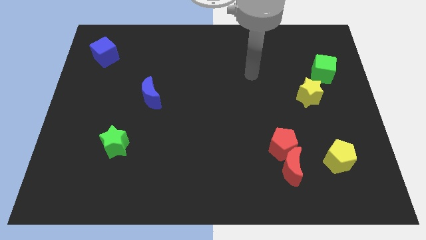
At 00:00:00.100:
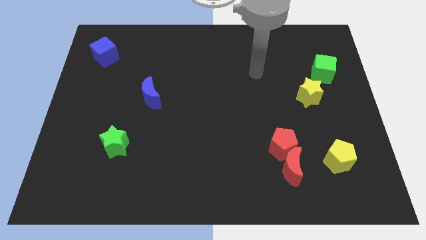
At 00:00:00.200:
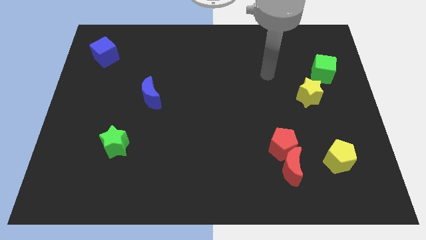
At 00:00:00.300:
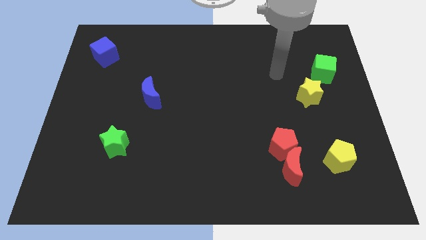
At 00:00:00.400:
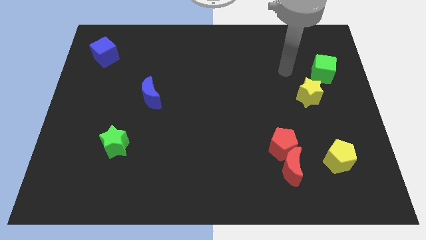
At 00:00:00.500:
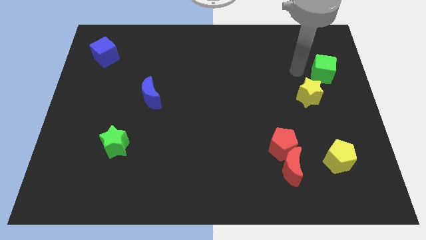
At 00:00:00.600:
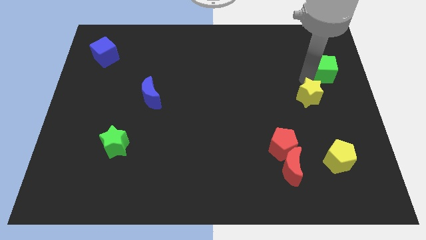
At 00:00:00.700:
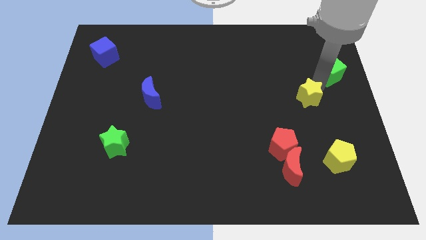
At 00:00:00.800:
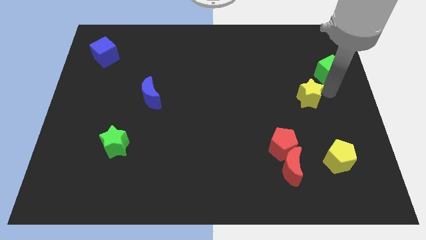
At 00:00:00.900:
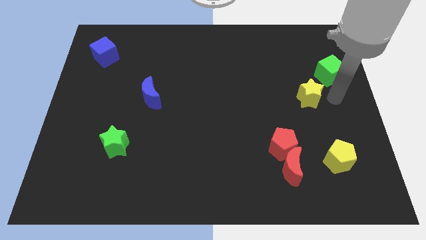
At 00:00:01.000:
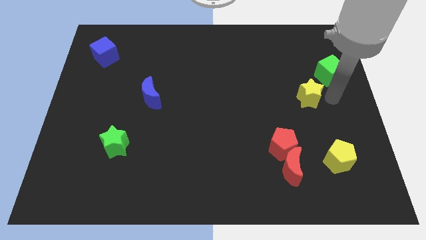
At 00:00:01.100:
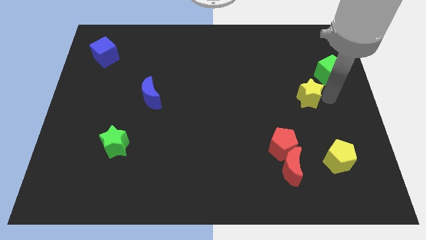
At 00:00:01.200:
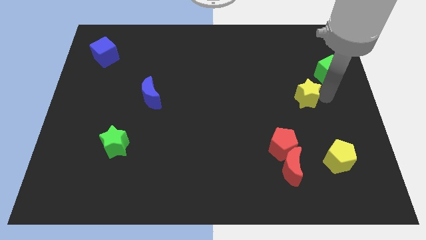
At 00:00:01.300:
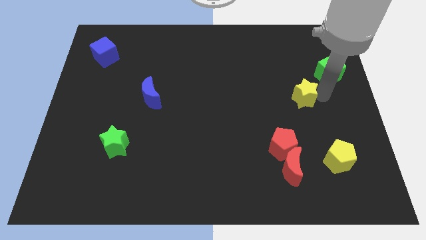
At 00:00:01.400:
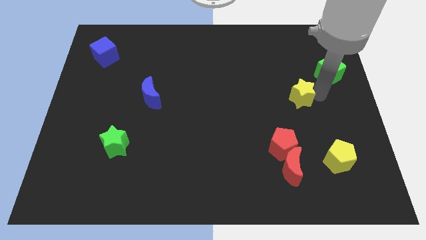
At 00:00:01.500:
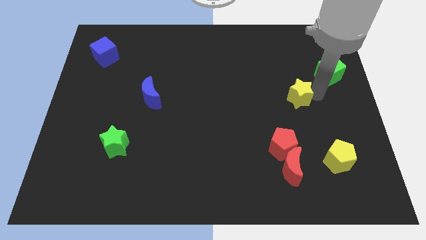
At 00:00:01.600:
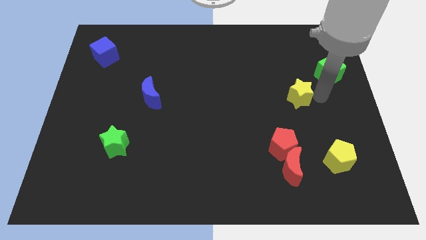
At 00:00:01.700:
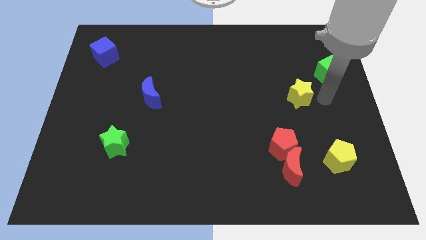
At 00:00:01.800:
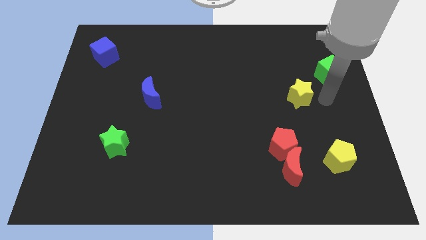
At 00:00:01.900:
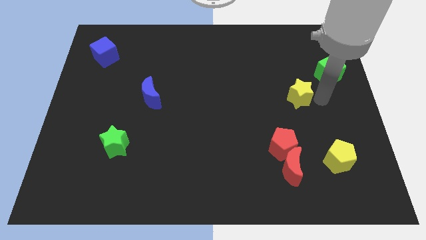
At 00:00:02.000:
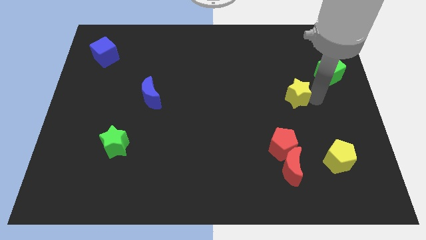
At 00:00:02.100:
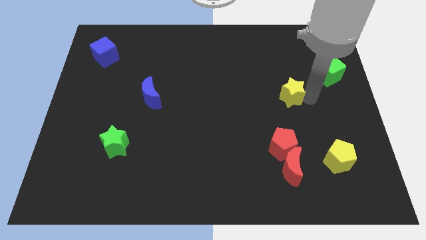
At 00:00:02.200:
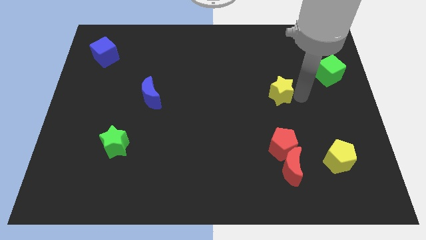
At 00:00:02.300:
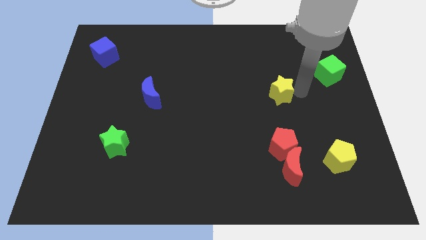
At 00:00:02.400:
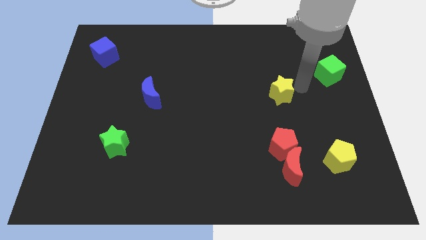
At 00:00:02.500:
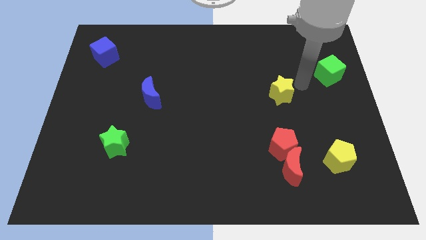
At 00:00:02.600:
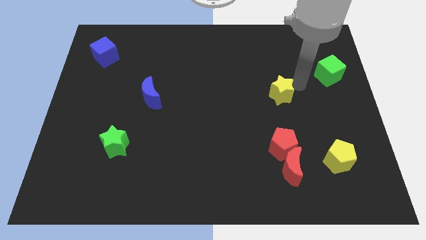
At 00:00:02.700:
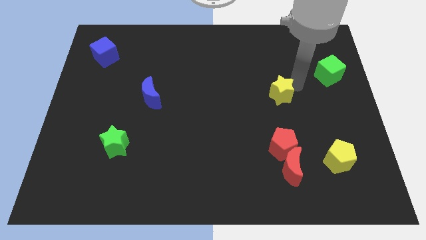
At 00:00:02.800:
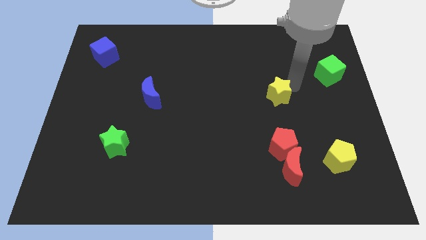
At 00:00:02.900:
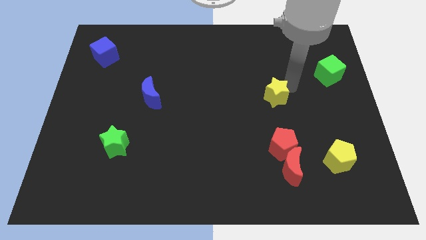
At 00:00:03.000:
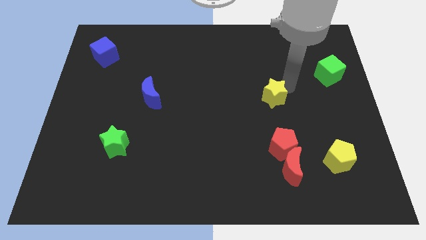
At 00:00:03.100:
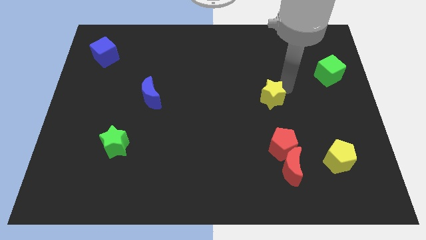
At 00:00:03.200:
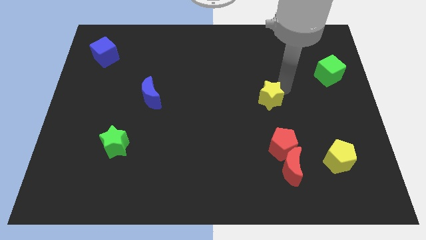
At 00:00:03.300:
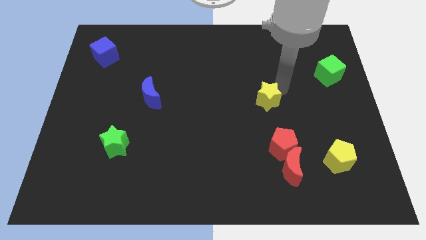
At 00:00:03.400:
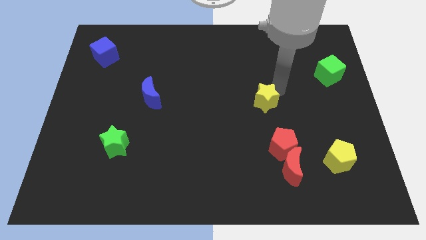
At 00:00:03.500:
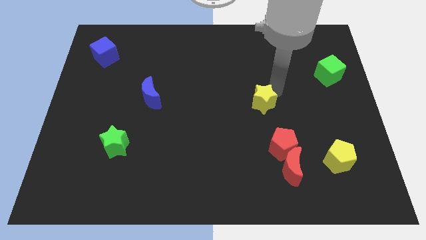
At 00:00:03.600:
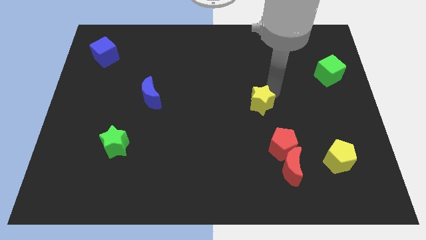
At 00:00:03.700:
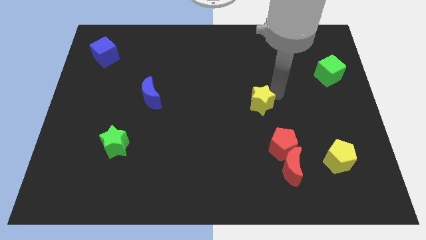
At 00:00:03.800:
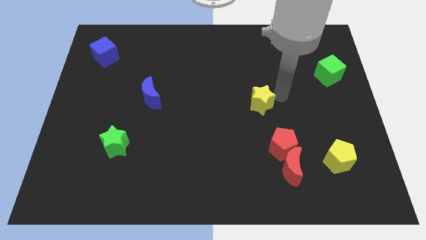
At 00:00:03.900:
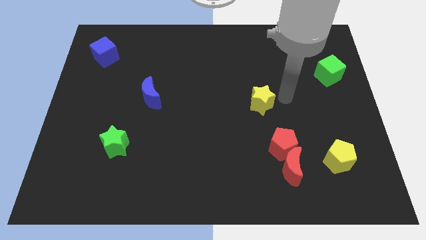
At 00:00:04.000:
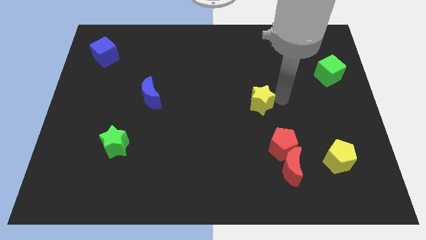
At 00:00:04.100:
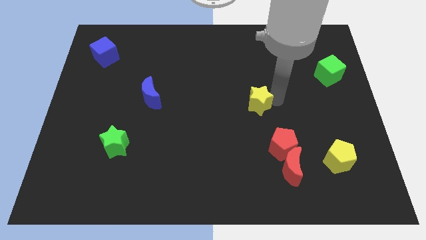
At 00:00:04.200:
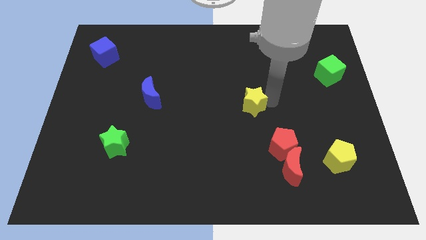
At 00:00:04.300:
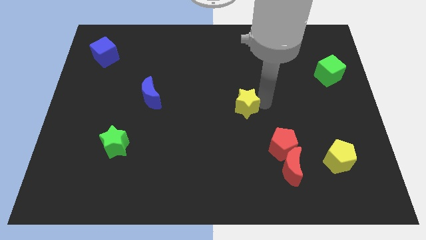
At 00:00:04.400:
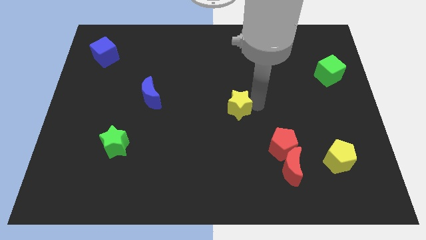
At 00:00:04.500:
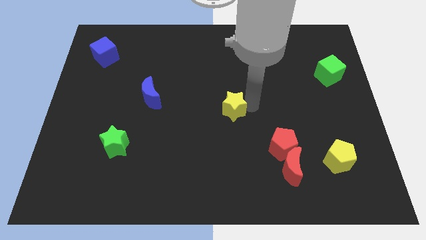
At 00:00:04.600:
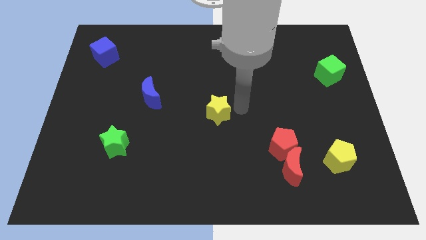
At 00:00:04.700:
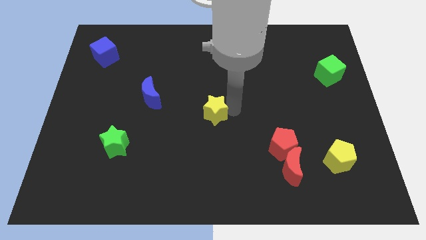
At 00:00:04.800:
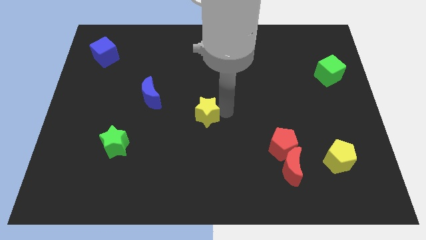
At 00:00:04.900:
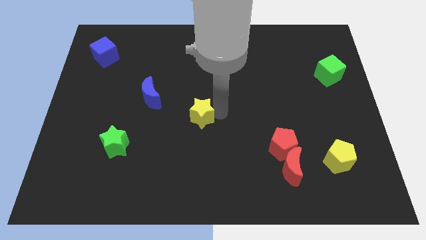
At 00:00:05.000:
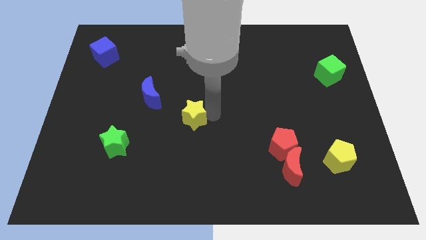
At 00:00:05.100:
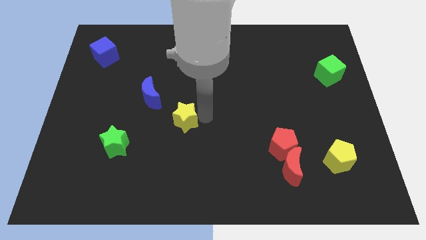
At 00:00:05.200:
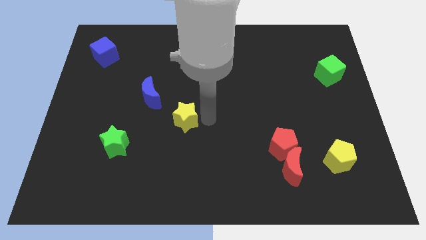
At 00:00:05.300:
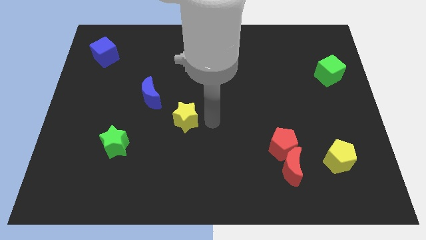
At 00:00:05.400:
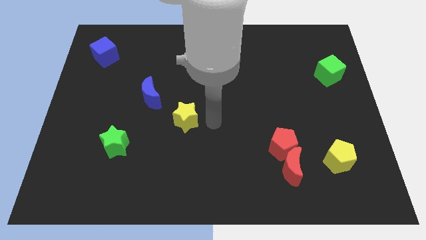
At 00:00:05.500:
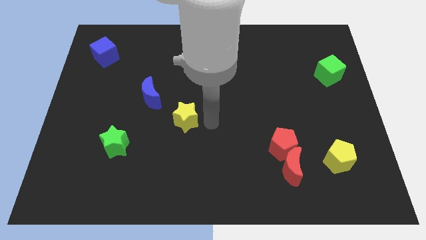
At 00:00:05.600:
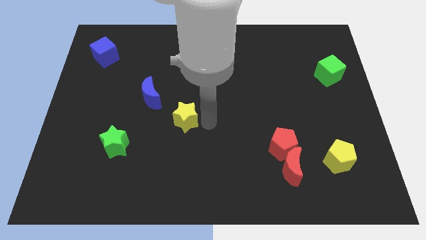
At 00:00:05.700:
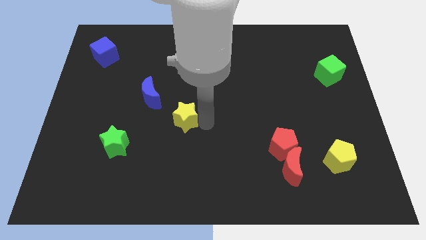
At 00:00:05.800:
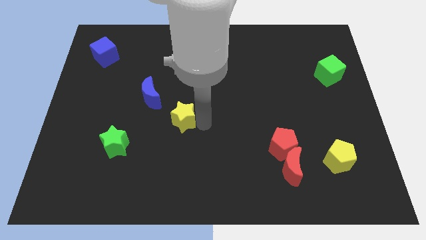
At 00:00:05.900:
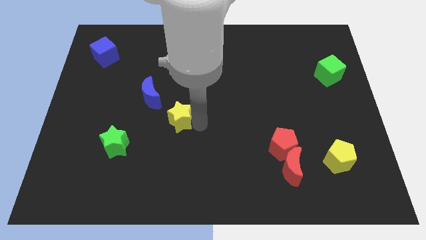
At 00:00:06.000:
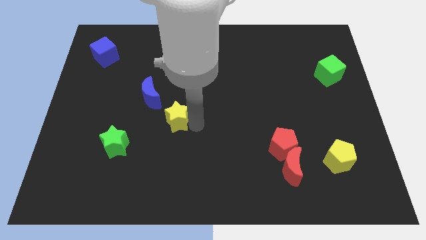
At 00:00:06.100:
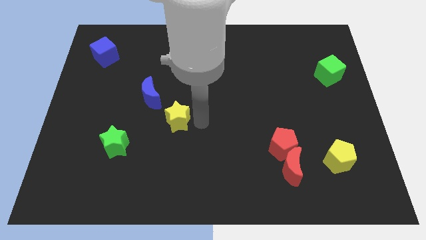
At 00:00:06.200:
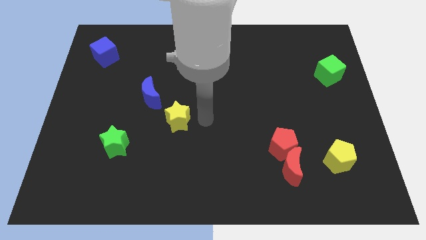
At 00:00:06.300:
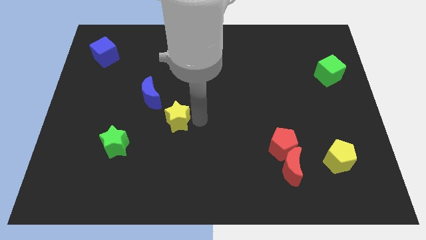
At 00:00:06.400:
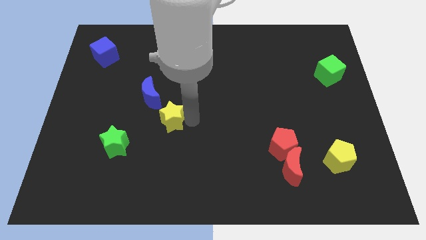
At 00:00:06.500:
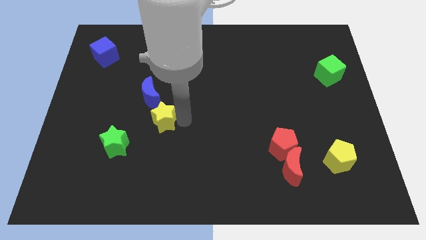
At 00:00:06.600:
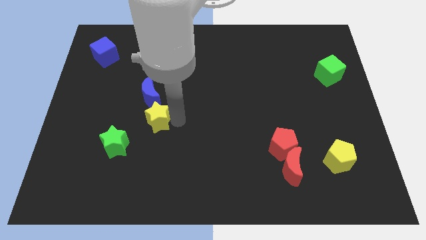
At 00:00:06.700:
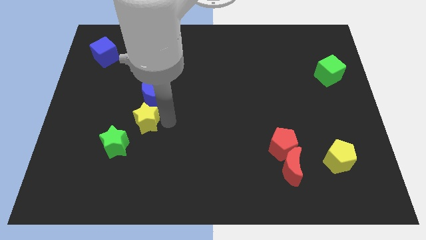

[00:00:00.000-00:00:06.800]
move the yellow star to the bottom left side of the blue moon

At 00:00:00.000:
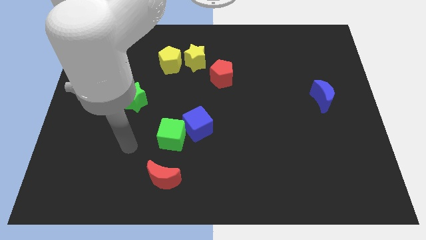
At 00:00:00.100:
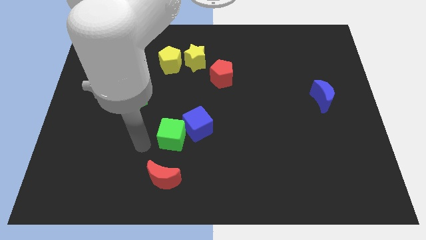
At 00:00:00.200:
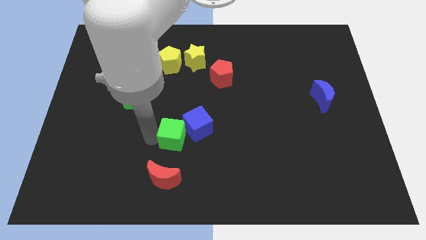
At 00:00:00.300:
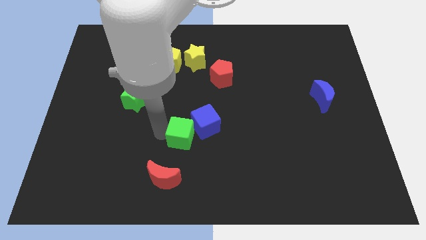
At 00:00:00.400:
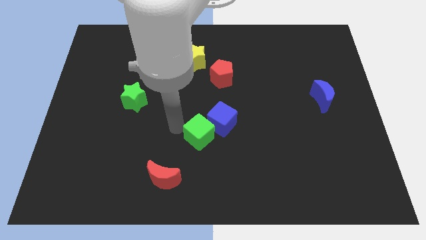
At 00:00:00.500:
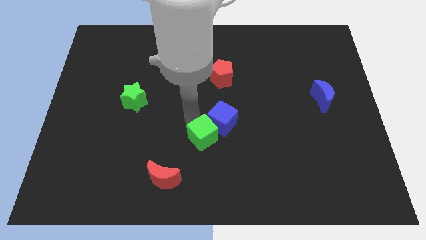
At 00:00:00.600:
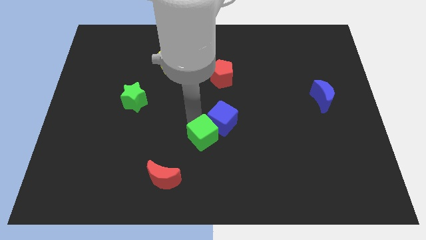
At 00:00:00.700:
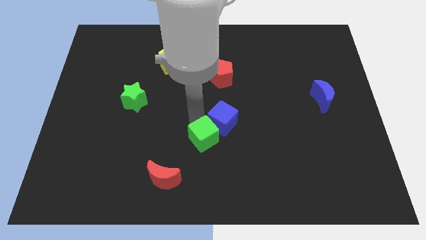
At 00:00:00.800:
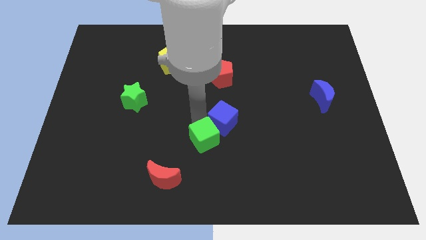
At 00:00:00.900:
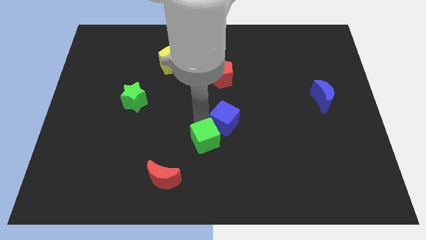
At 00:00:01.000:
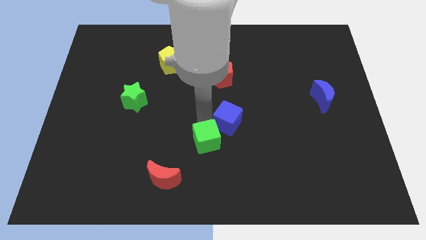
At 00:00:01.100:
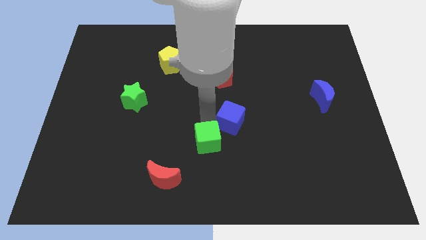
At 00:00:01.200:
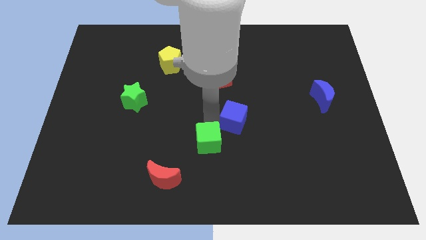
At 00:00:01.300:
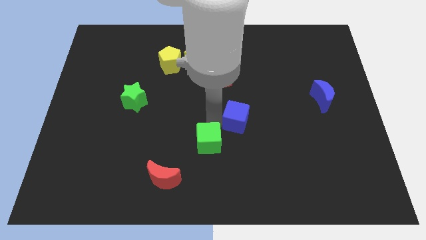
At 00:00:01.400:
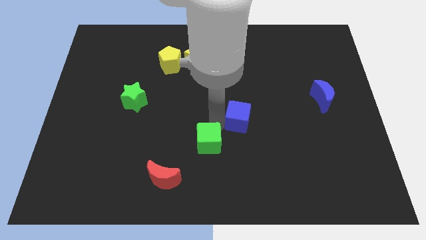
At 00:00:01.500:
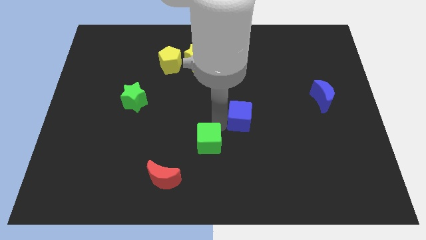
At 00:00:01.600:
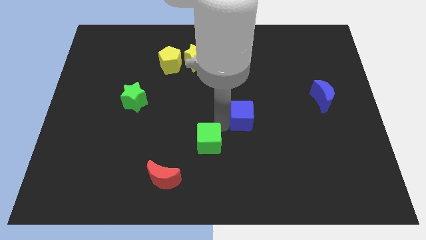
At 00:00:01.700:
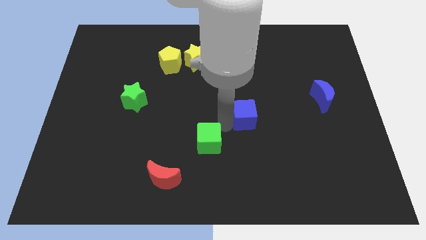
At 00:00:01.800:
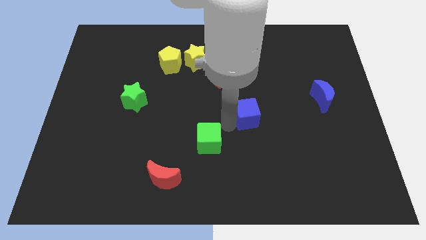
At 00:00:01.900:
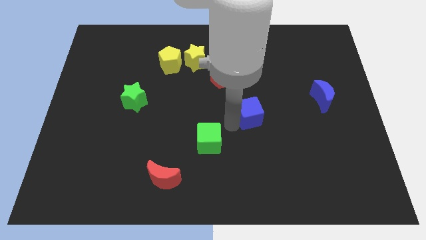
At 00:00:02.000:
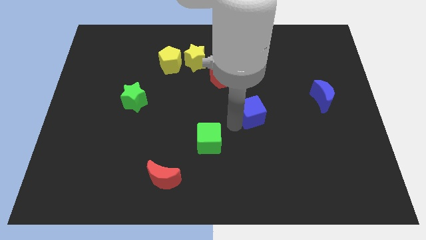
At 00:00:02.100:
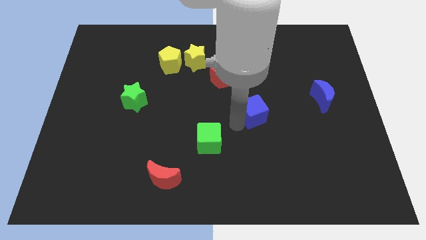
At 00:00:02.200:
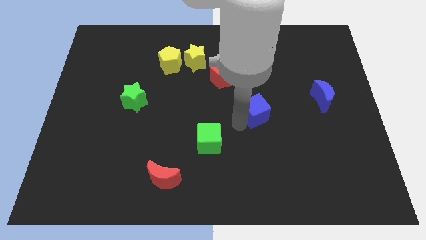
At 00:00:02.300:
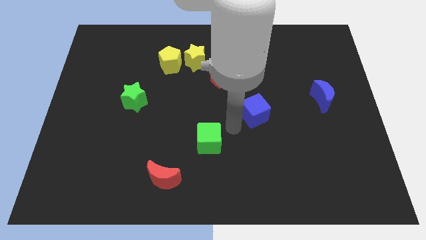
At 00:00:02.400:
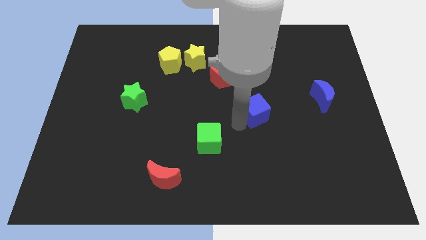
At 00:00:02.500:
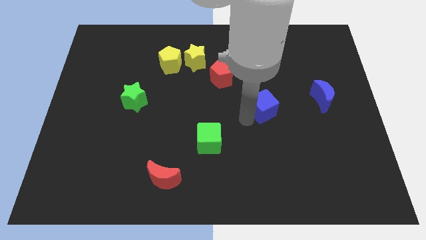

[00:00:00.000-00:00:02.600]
put the blue cube left of the blue moon
